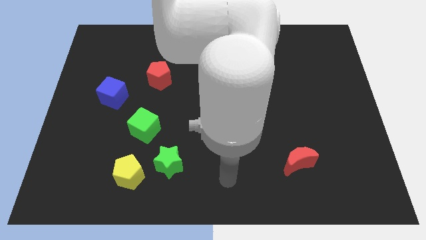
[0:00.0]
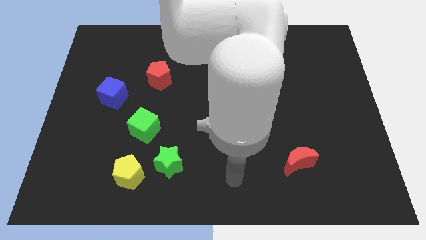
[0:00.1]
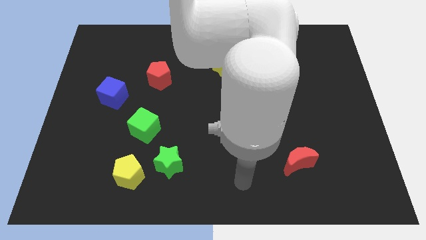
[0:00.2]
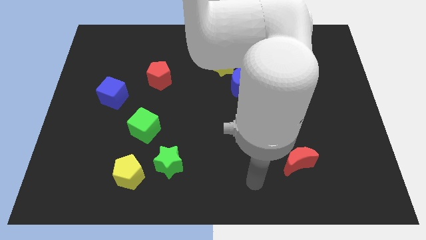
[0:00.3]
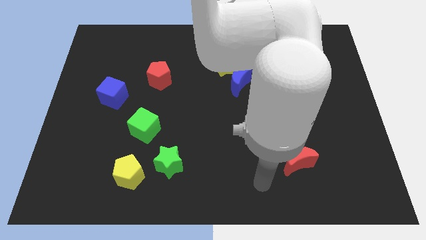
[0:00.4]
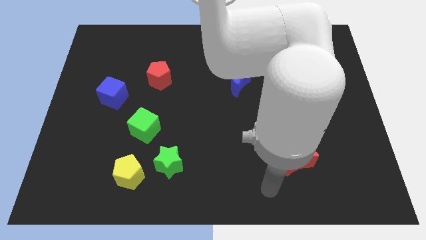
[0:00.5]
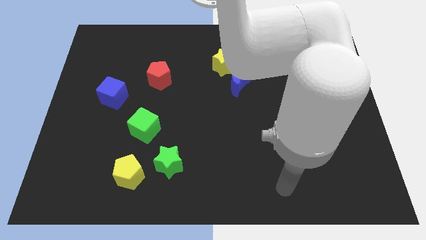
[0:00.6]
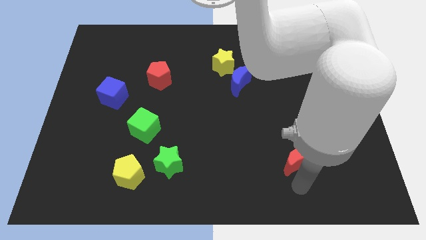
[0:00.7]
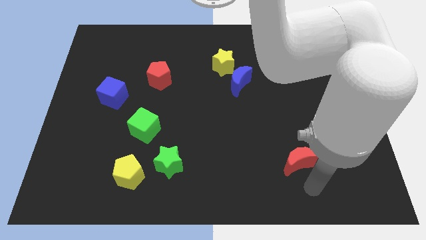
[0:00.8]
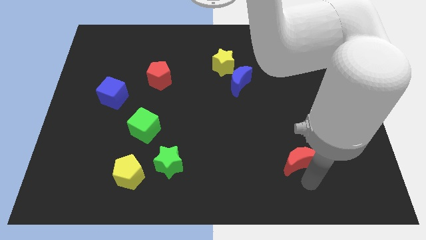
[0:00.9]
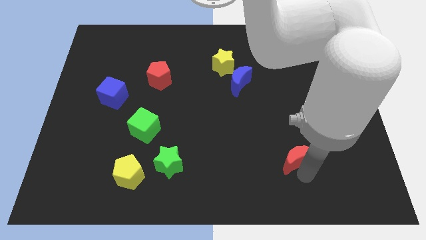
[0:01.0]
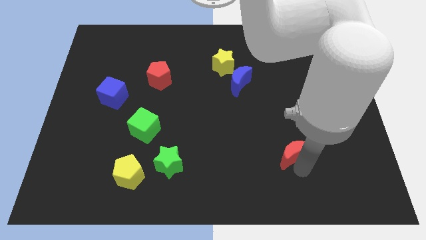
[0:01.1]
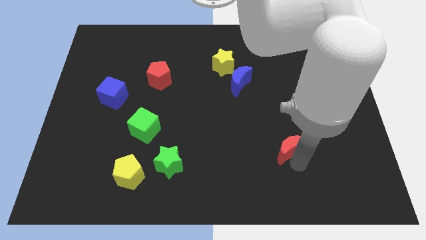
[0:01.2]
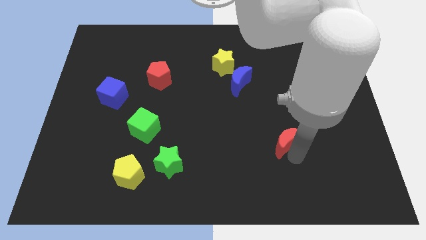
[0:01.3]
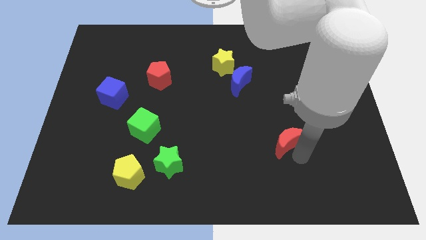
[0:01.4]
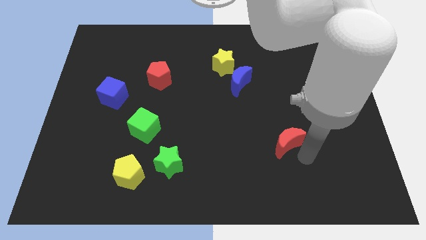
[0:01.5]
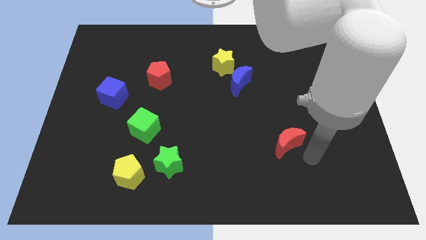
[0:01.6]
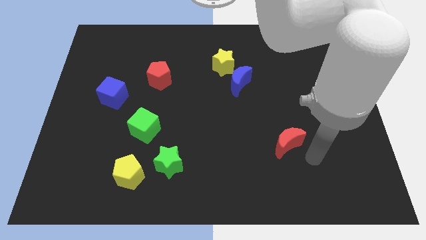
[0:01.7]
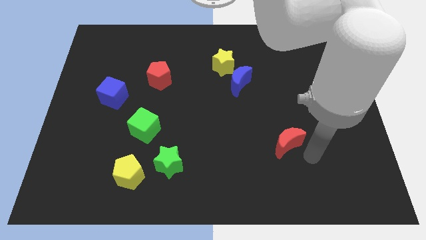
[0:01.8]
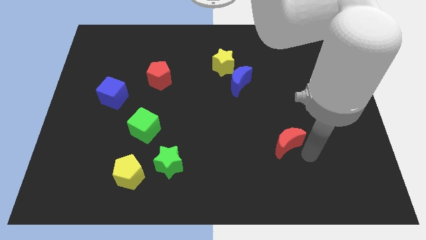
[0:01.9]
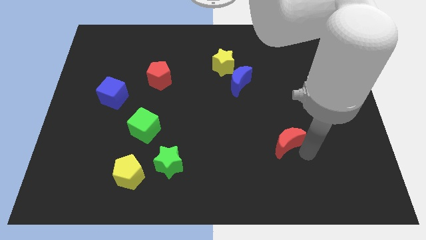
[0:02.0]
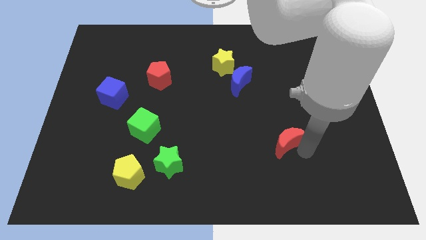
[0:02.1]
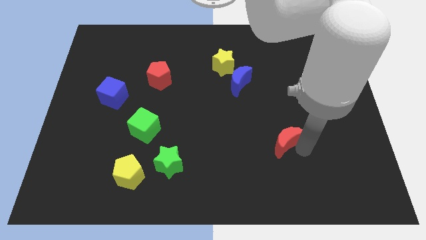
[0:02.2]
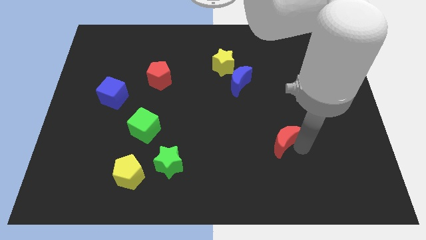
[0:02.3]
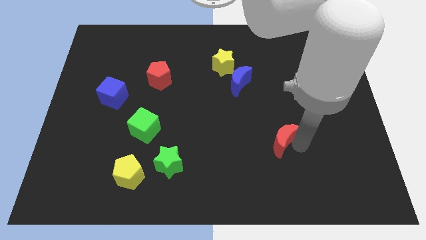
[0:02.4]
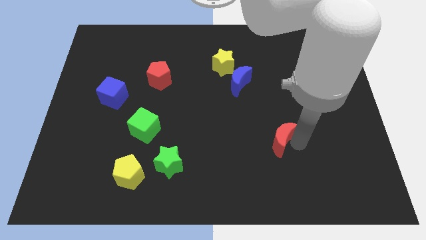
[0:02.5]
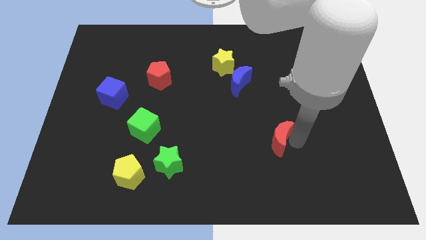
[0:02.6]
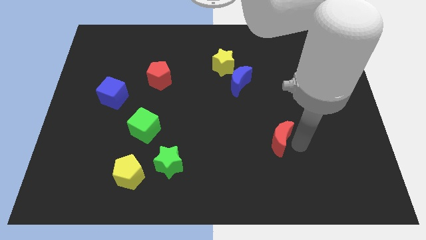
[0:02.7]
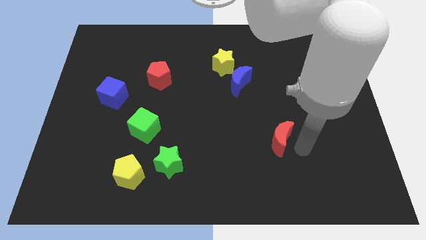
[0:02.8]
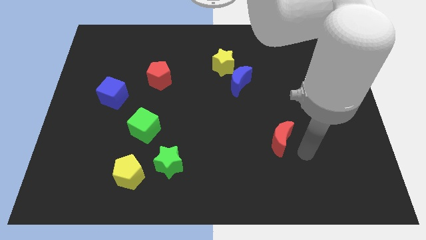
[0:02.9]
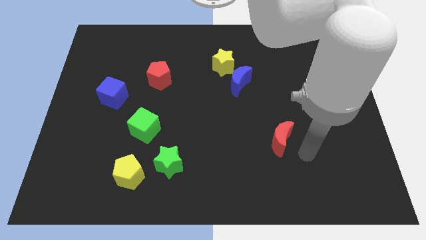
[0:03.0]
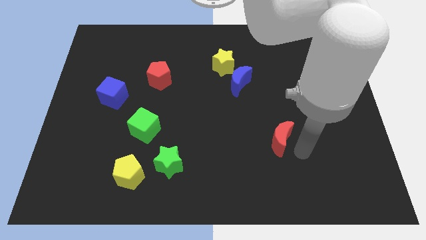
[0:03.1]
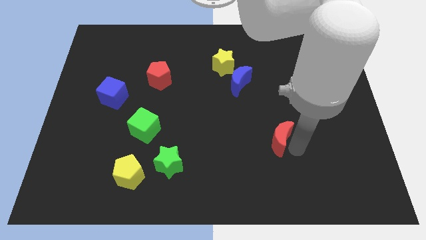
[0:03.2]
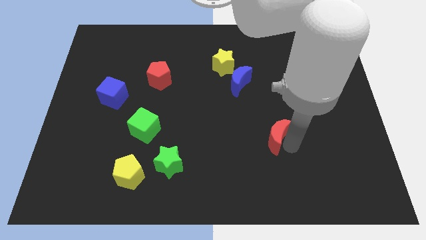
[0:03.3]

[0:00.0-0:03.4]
slightly slide the red moon upwards and left diagonally

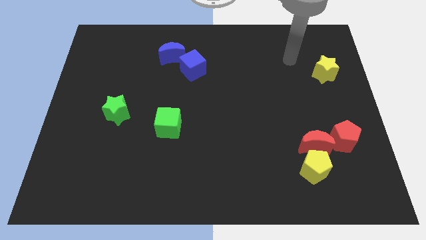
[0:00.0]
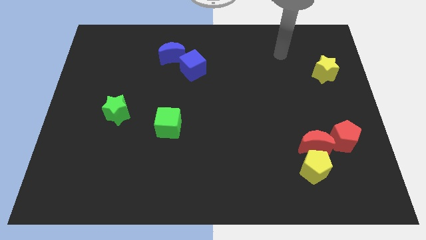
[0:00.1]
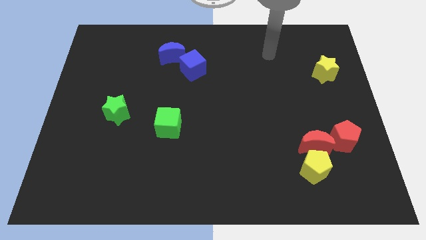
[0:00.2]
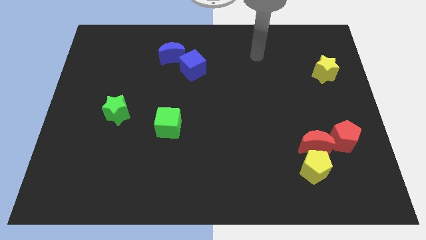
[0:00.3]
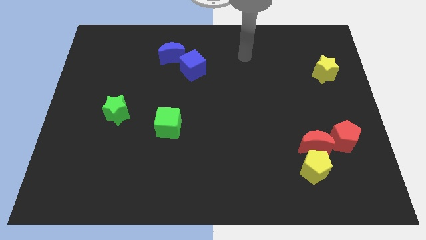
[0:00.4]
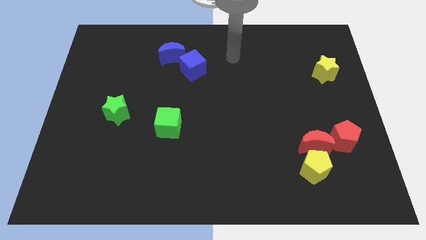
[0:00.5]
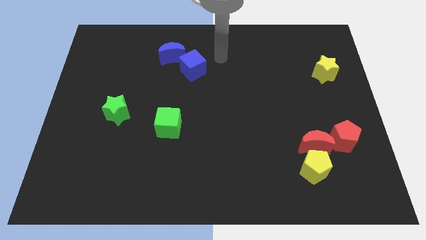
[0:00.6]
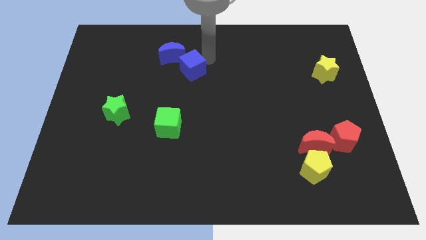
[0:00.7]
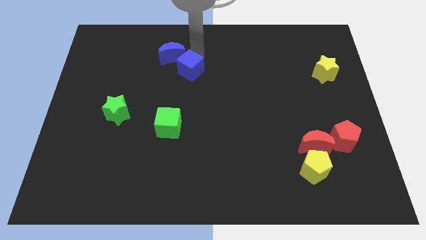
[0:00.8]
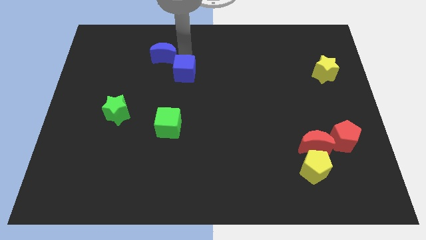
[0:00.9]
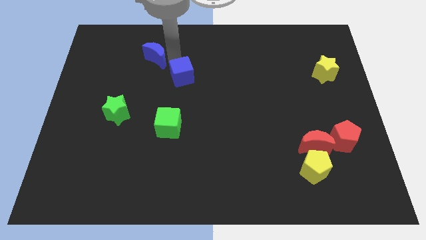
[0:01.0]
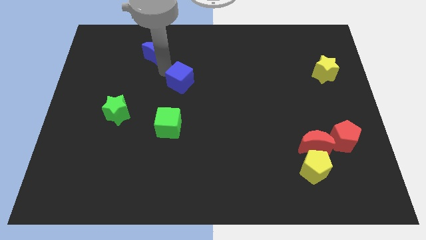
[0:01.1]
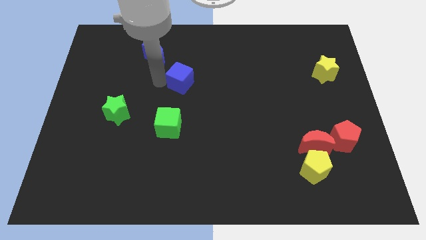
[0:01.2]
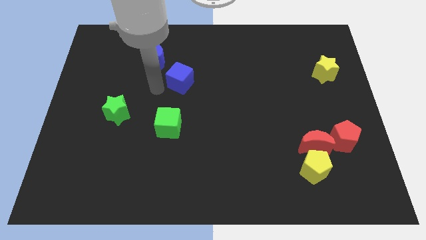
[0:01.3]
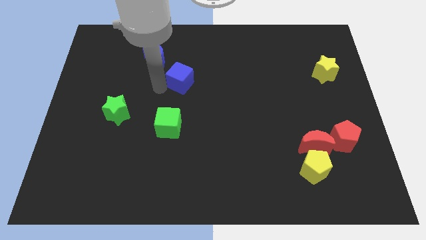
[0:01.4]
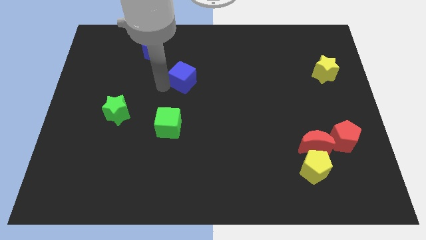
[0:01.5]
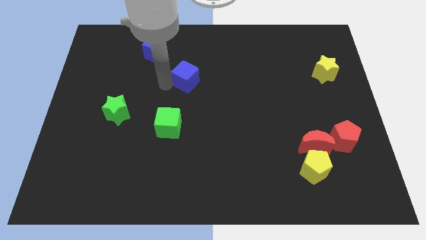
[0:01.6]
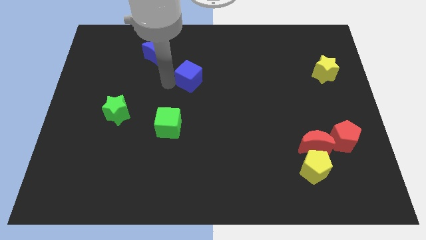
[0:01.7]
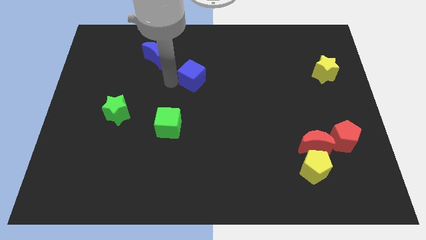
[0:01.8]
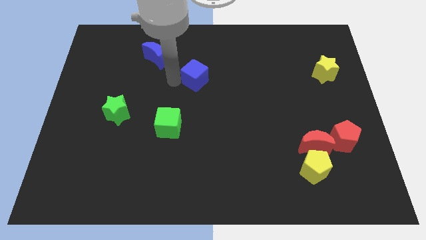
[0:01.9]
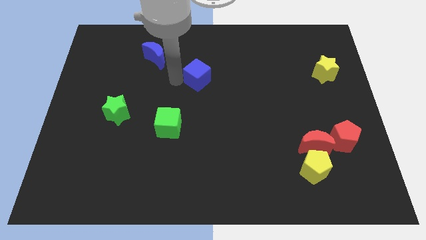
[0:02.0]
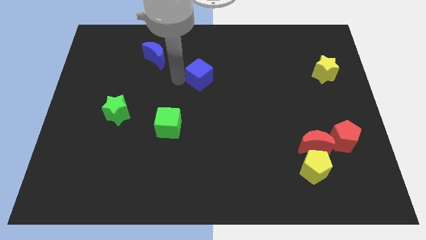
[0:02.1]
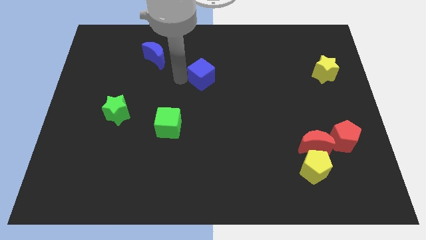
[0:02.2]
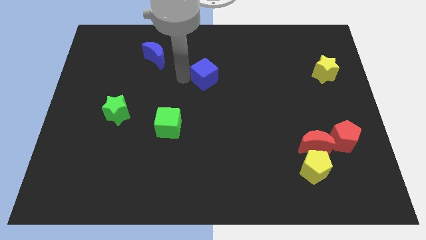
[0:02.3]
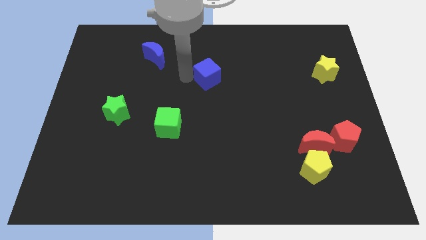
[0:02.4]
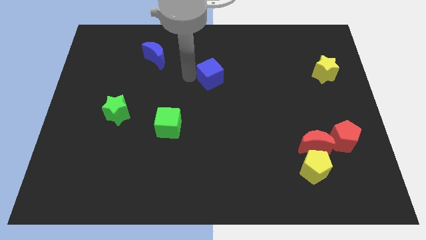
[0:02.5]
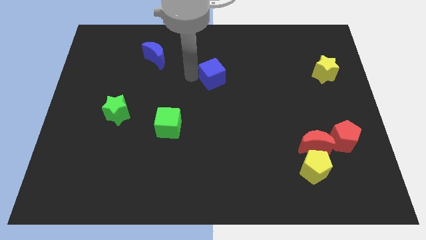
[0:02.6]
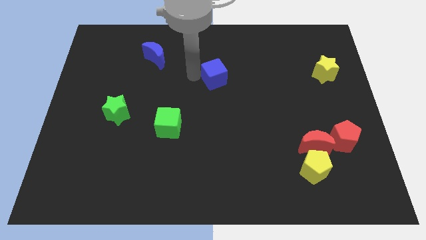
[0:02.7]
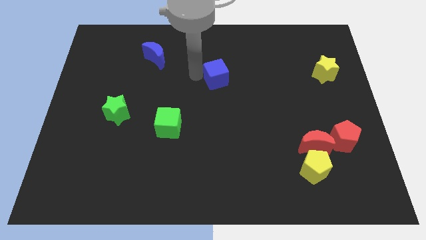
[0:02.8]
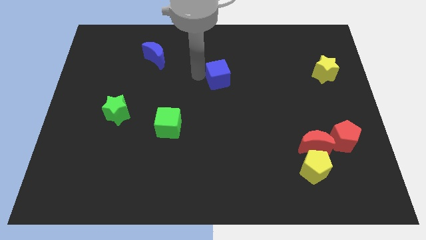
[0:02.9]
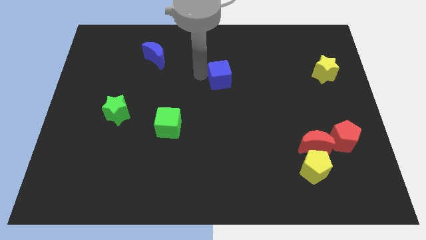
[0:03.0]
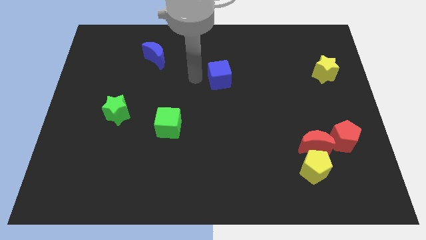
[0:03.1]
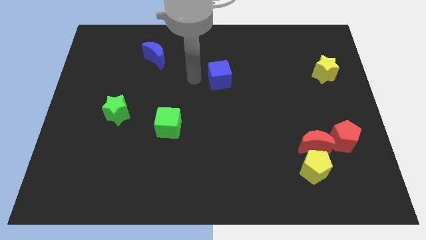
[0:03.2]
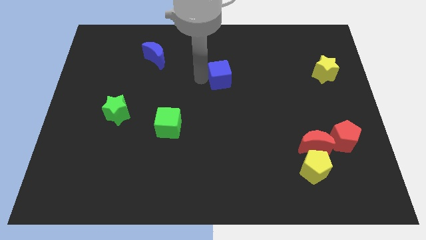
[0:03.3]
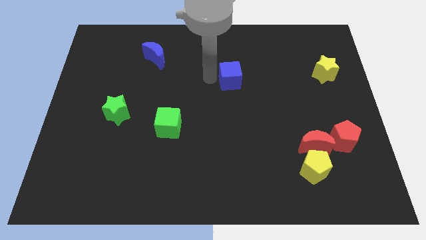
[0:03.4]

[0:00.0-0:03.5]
slightly move the blue cube right

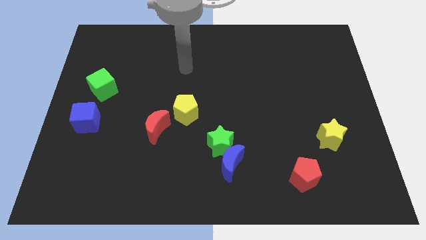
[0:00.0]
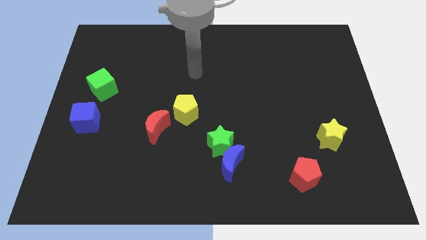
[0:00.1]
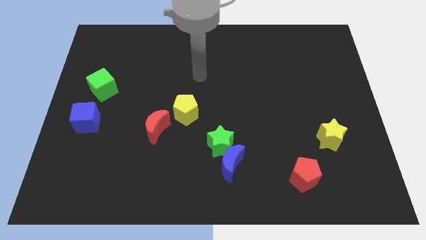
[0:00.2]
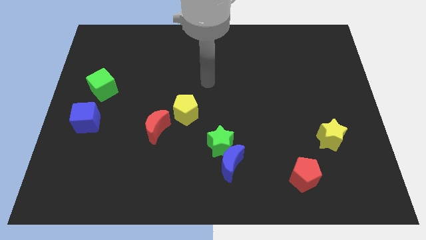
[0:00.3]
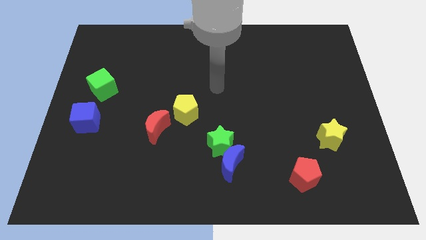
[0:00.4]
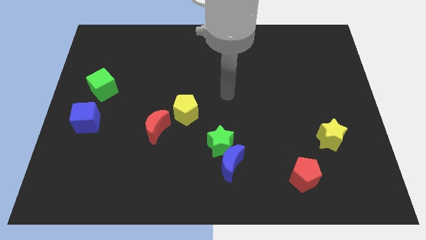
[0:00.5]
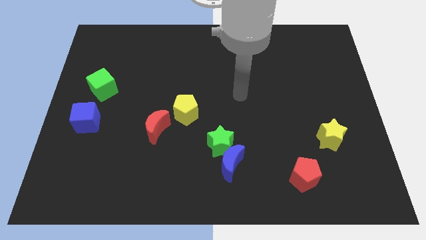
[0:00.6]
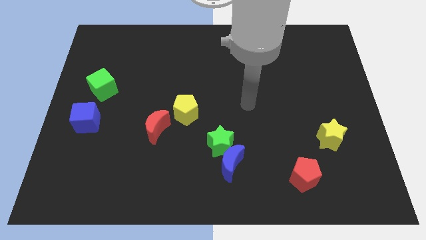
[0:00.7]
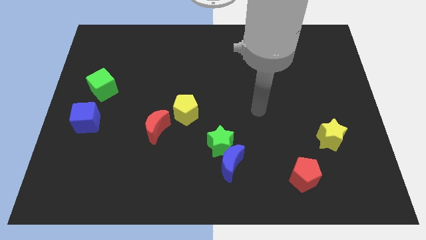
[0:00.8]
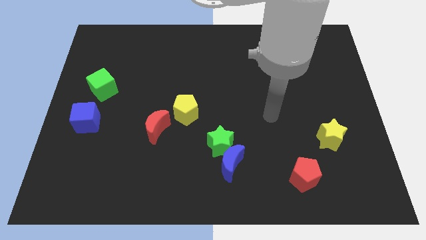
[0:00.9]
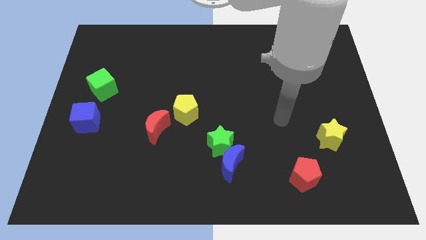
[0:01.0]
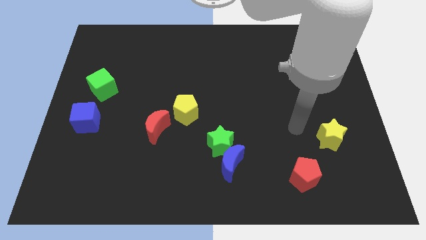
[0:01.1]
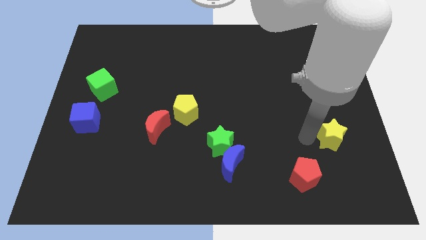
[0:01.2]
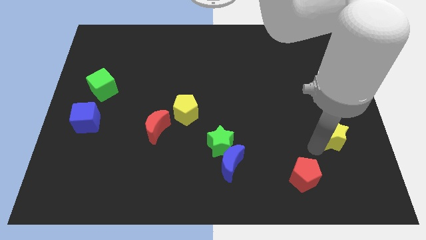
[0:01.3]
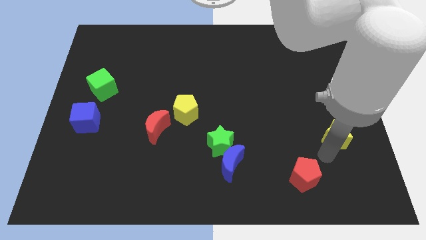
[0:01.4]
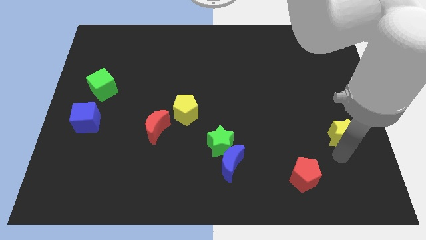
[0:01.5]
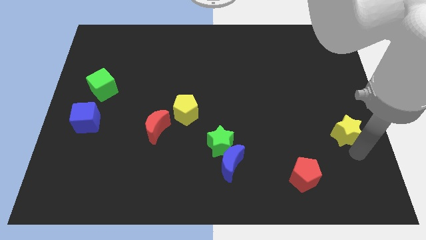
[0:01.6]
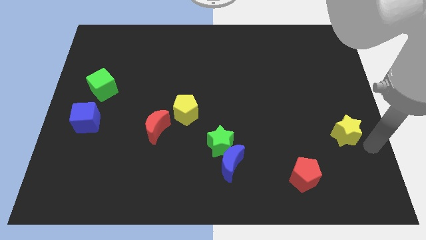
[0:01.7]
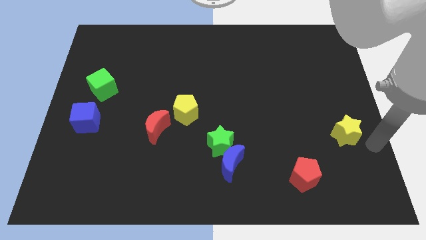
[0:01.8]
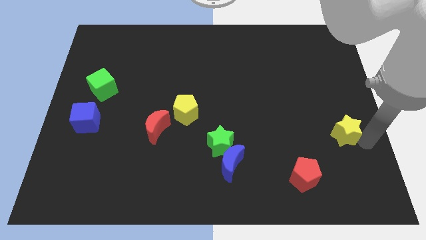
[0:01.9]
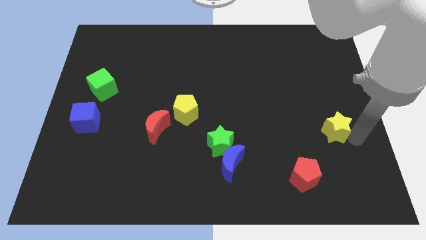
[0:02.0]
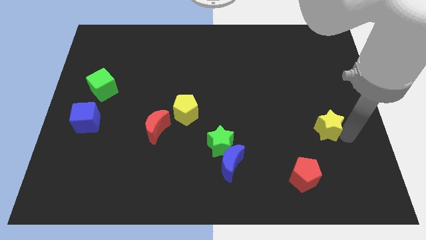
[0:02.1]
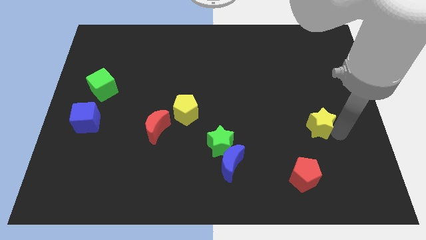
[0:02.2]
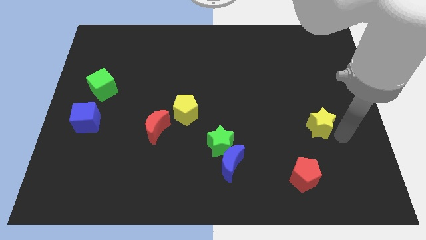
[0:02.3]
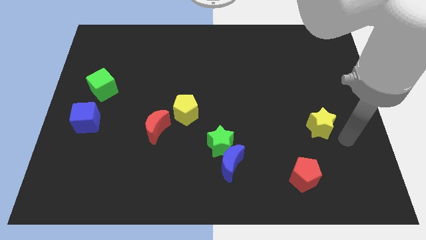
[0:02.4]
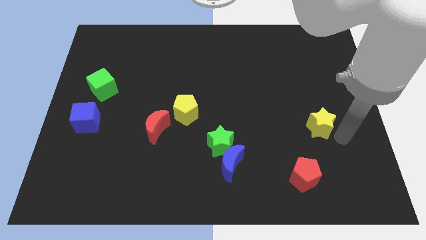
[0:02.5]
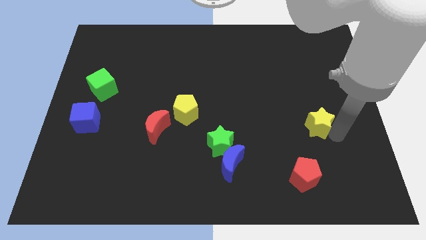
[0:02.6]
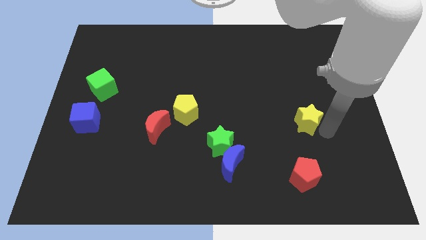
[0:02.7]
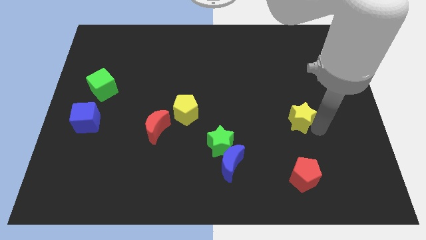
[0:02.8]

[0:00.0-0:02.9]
move the yellow star upwards and to the left diagonally a little bit
